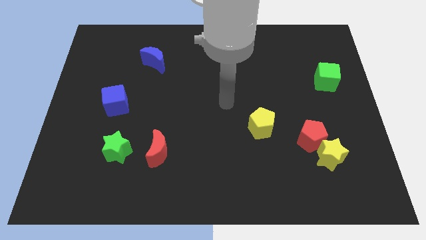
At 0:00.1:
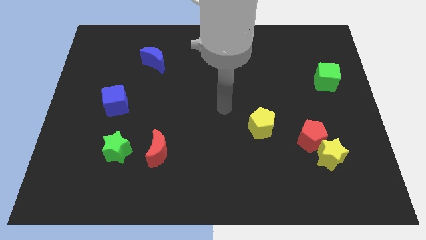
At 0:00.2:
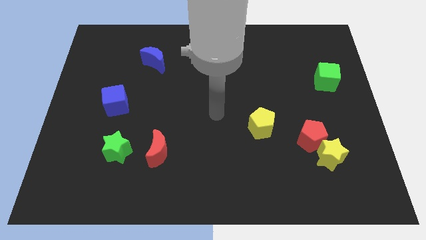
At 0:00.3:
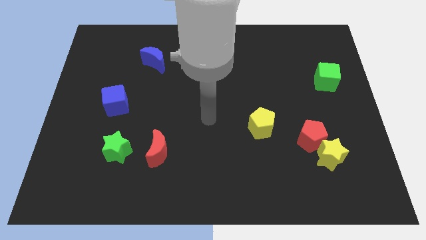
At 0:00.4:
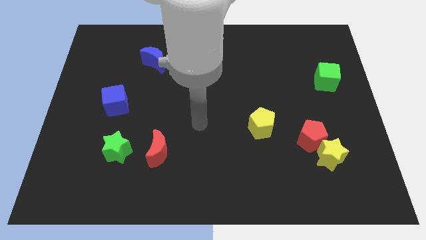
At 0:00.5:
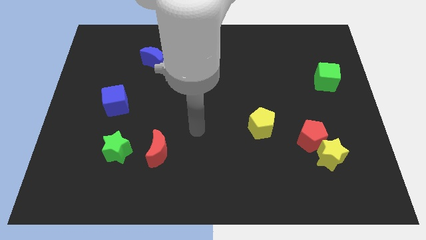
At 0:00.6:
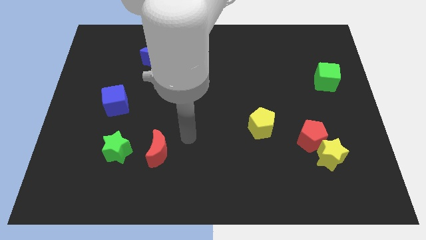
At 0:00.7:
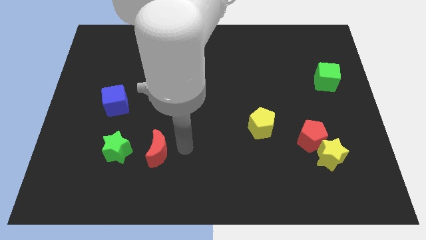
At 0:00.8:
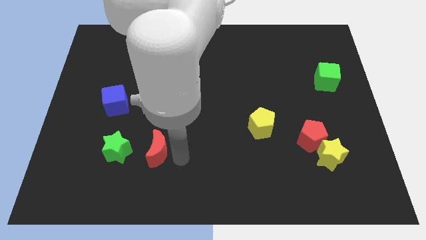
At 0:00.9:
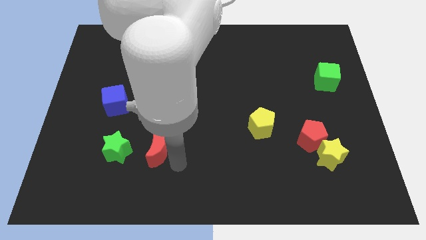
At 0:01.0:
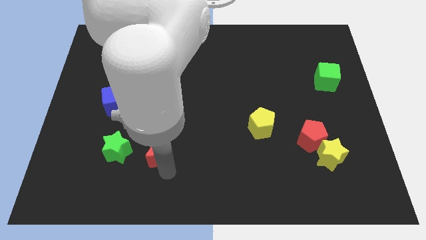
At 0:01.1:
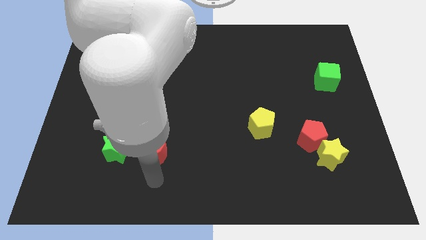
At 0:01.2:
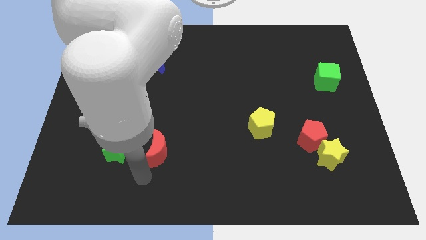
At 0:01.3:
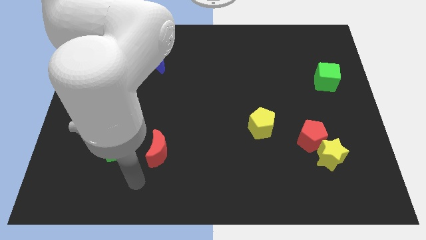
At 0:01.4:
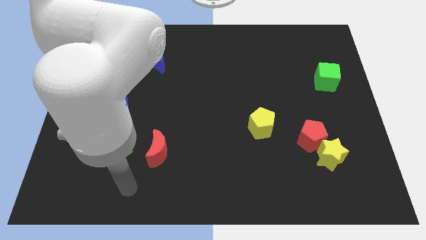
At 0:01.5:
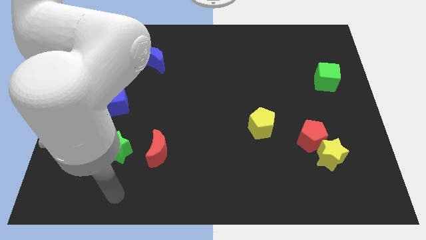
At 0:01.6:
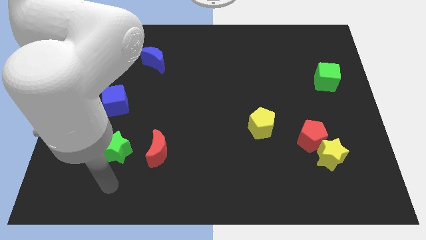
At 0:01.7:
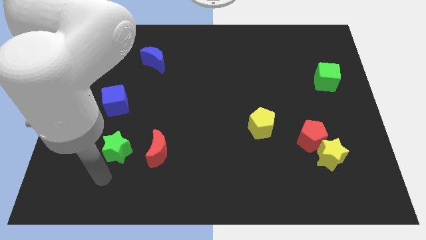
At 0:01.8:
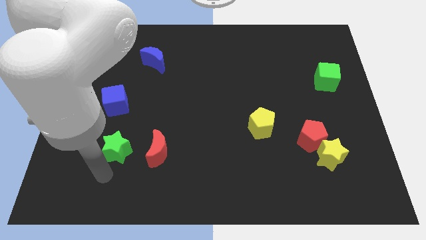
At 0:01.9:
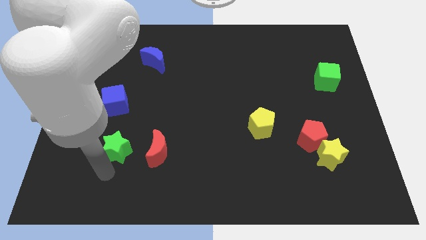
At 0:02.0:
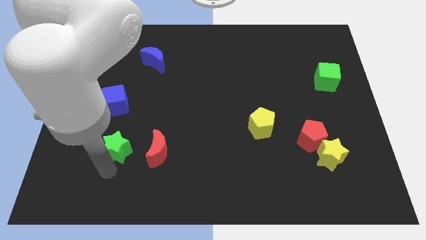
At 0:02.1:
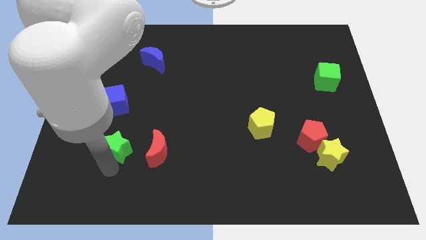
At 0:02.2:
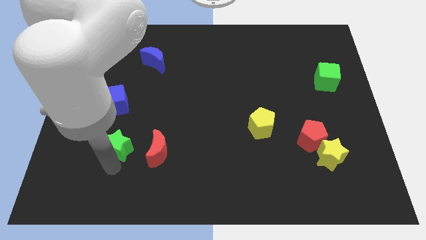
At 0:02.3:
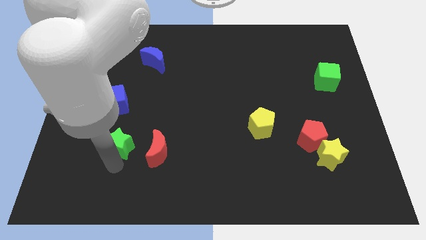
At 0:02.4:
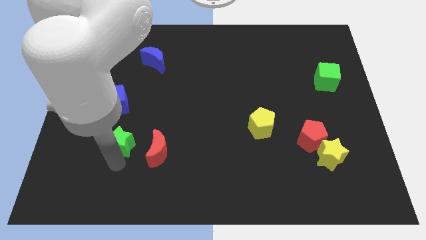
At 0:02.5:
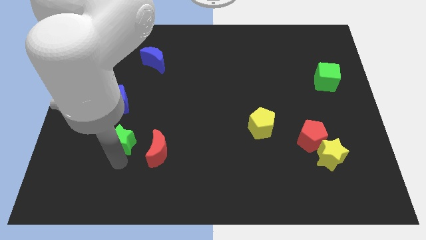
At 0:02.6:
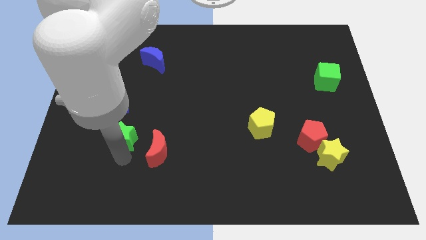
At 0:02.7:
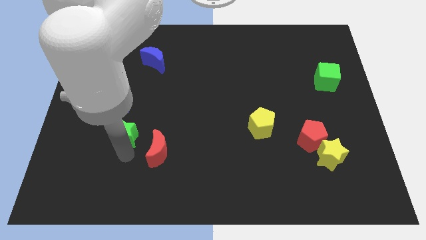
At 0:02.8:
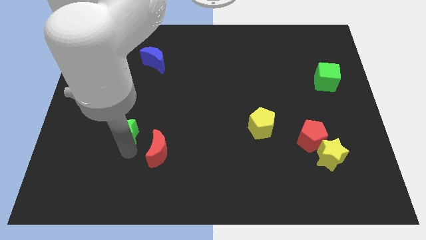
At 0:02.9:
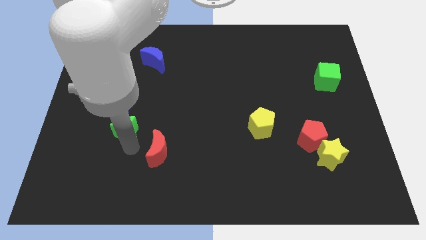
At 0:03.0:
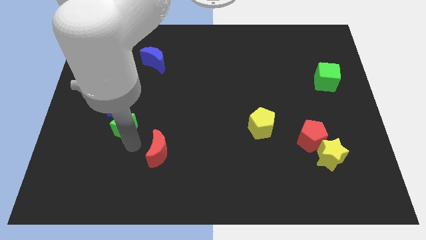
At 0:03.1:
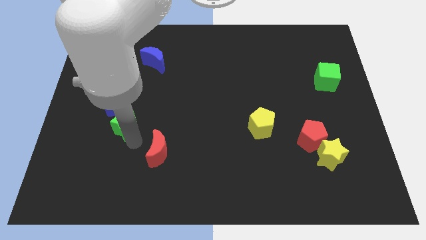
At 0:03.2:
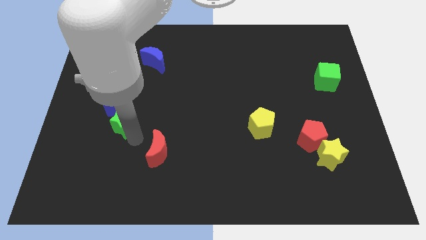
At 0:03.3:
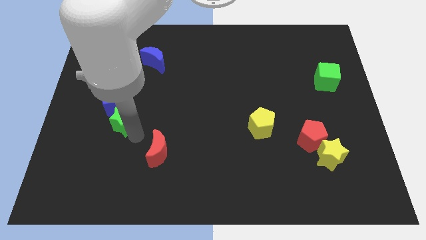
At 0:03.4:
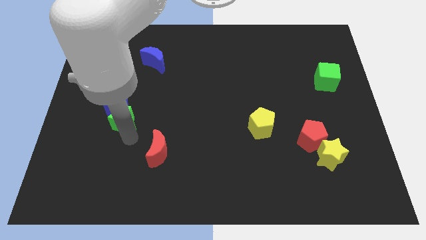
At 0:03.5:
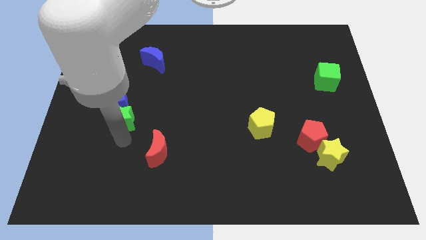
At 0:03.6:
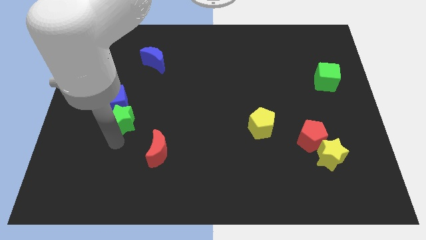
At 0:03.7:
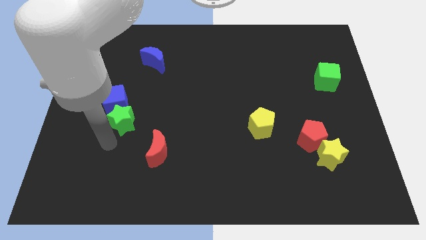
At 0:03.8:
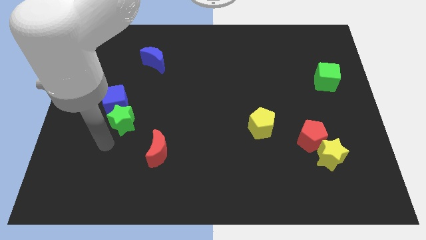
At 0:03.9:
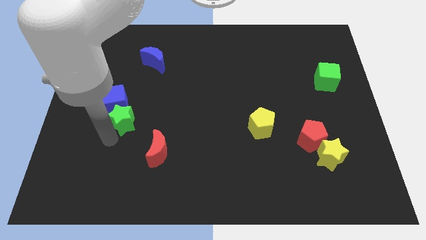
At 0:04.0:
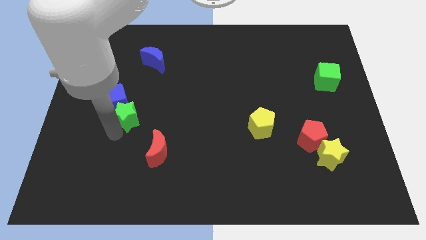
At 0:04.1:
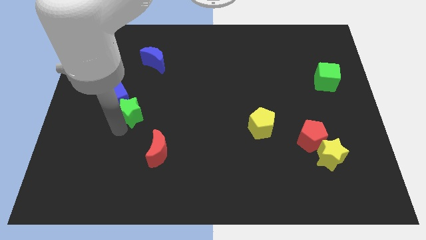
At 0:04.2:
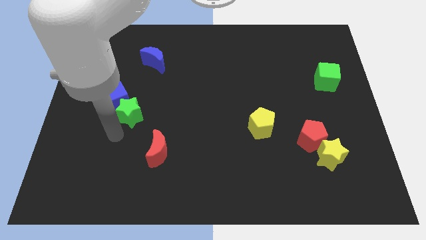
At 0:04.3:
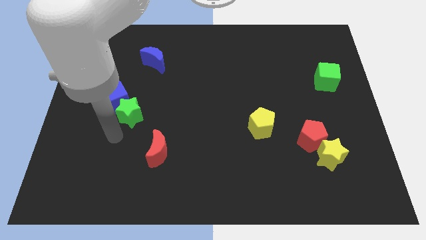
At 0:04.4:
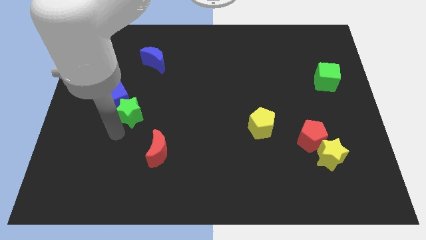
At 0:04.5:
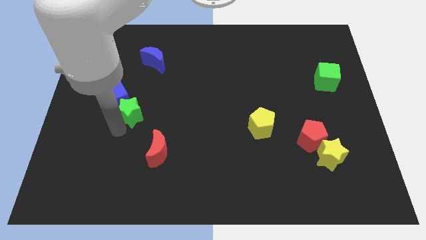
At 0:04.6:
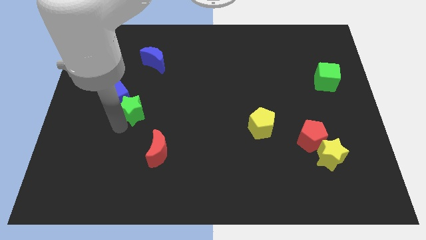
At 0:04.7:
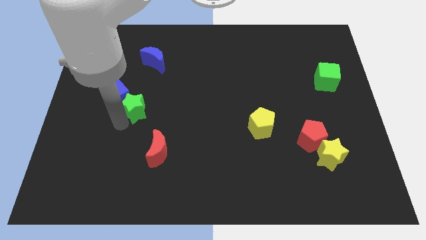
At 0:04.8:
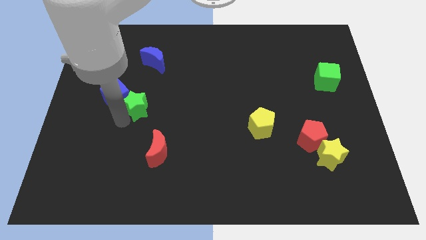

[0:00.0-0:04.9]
move the green star to the bottom of the blue moon

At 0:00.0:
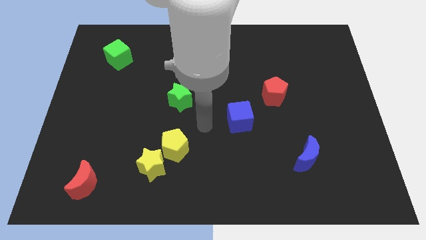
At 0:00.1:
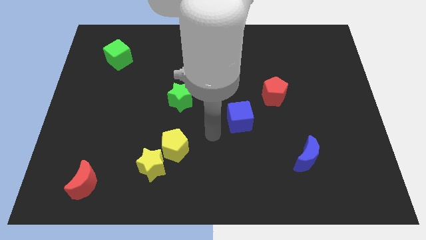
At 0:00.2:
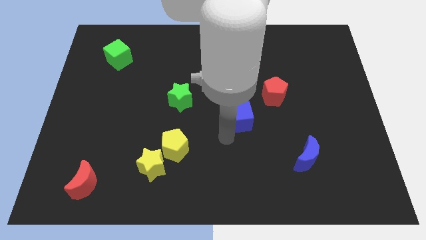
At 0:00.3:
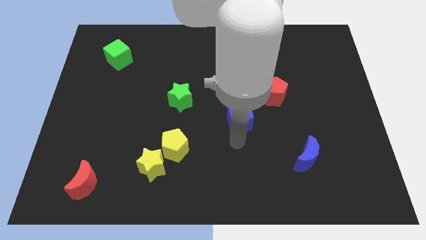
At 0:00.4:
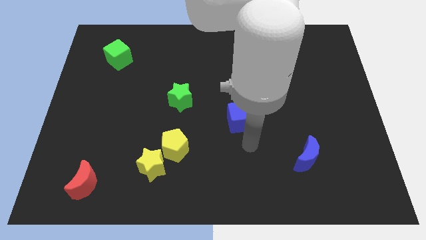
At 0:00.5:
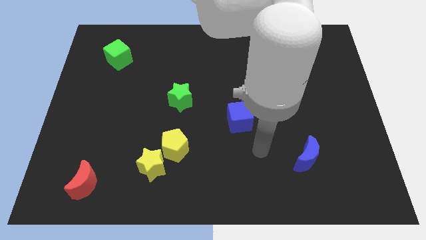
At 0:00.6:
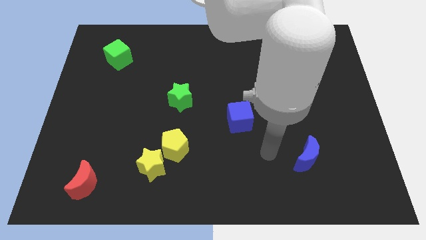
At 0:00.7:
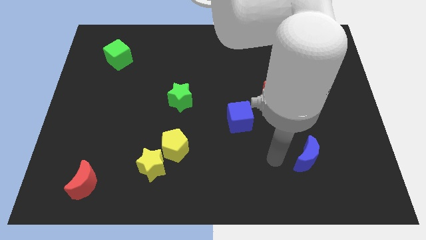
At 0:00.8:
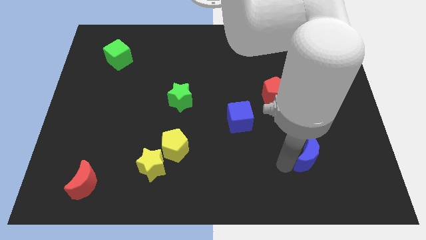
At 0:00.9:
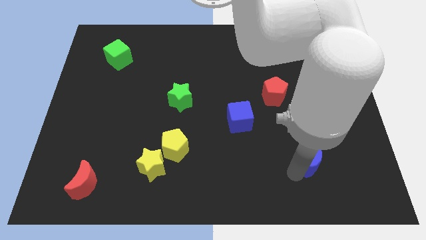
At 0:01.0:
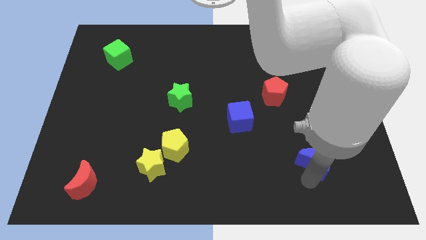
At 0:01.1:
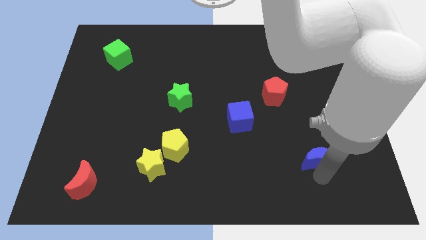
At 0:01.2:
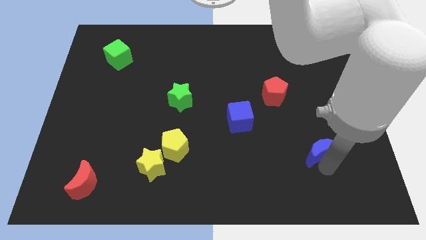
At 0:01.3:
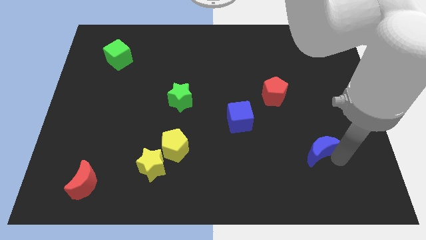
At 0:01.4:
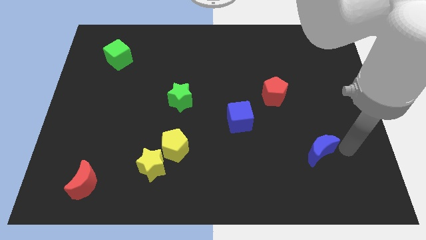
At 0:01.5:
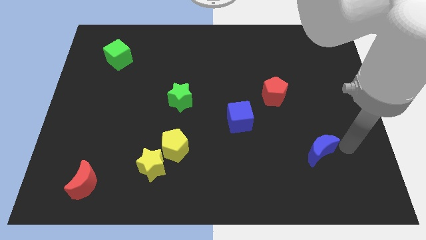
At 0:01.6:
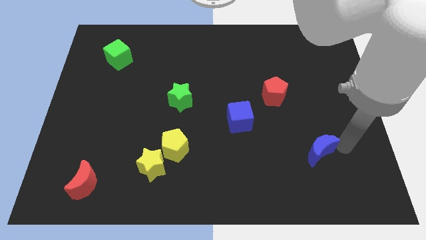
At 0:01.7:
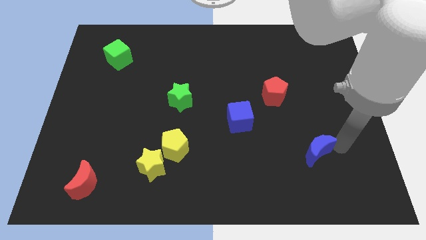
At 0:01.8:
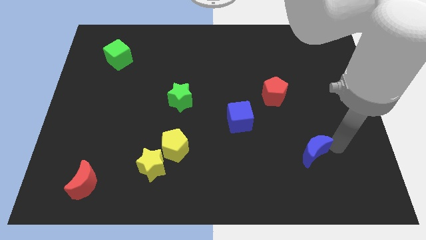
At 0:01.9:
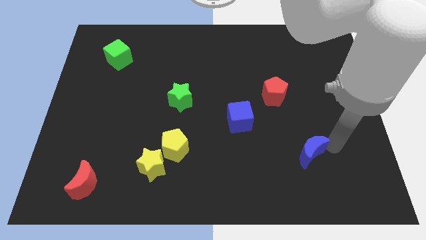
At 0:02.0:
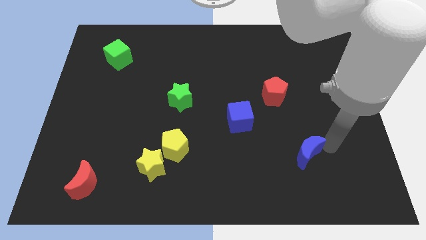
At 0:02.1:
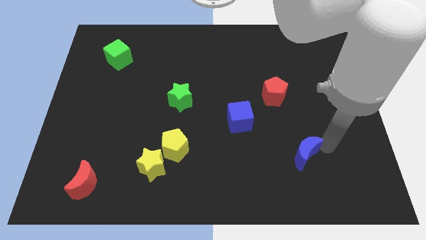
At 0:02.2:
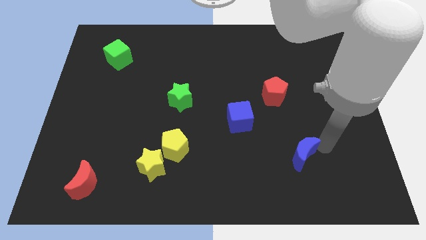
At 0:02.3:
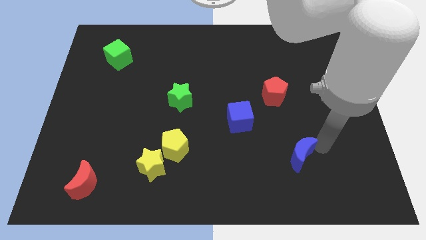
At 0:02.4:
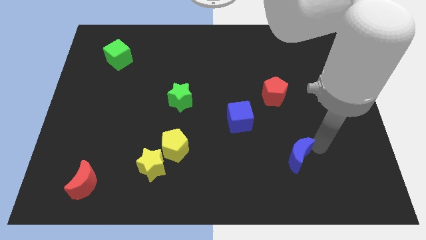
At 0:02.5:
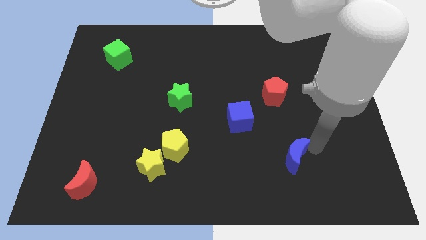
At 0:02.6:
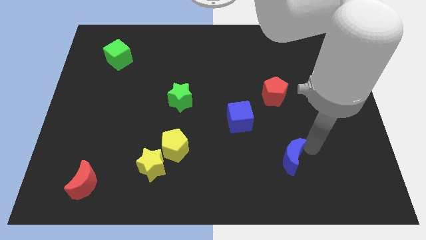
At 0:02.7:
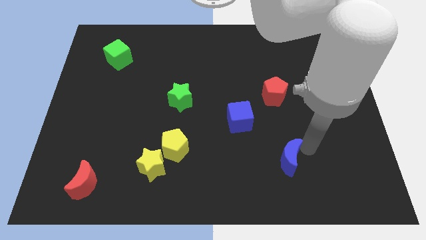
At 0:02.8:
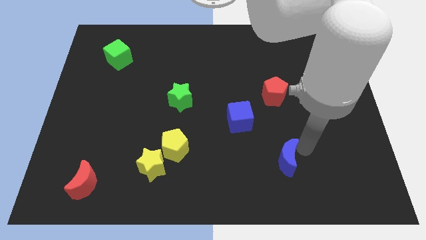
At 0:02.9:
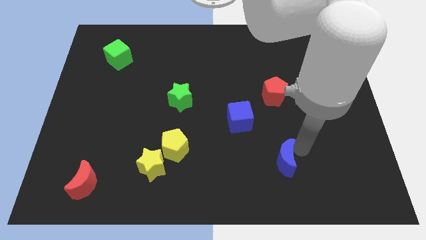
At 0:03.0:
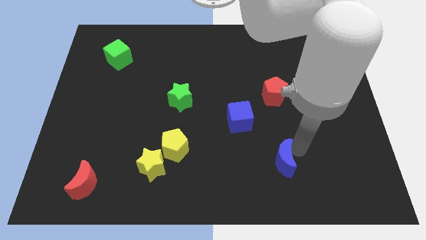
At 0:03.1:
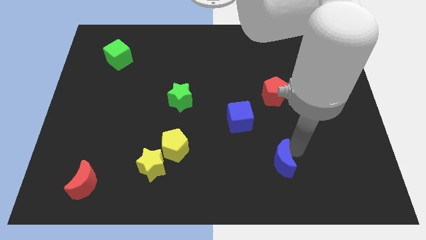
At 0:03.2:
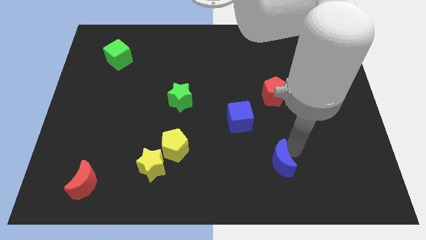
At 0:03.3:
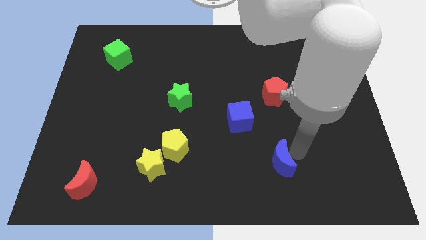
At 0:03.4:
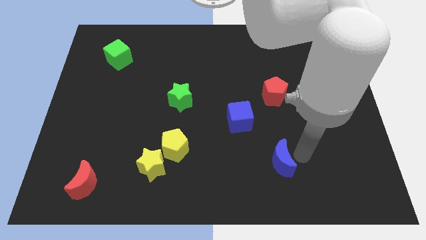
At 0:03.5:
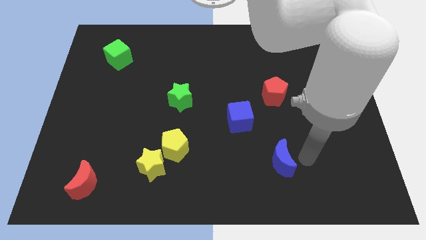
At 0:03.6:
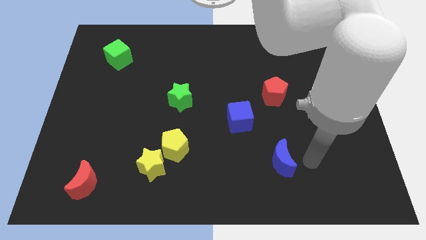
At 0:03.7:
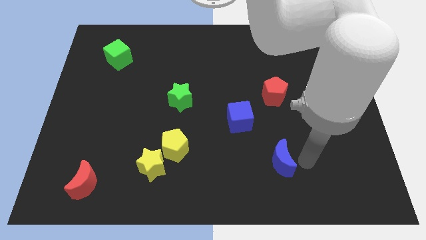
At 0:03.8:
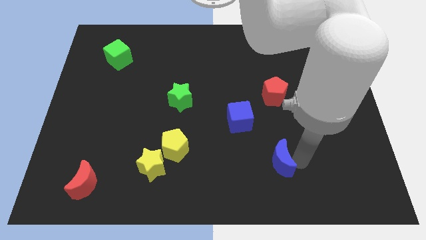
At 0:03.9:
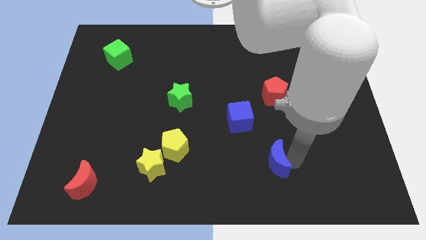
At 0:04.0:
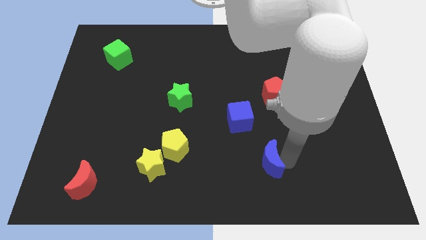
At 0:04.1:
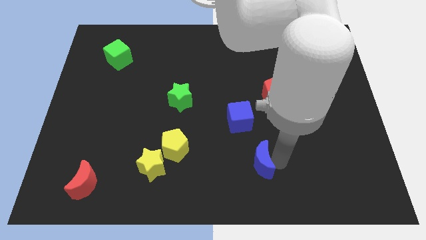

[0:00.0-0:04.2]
put the blue moon to the bottom side of the blue cube
